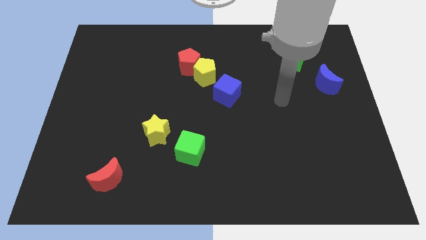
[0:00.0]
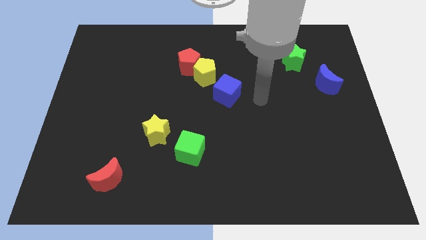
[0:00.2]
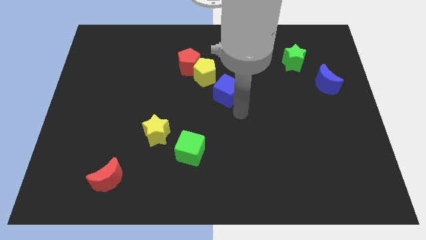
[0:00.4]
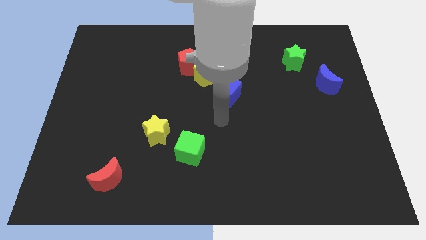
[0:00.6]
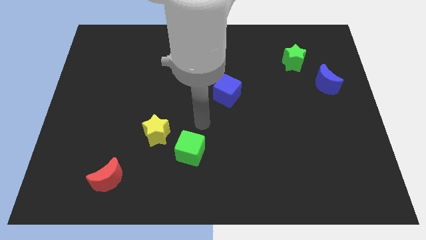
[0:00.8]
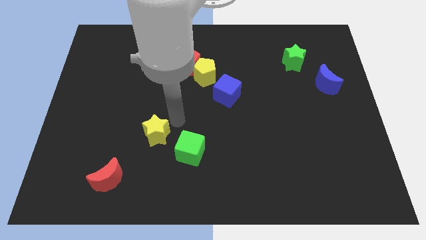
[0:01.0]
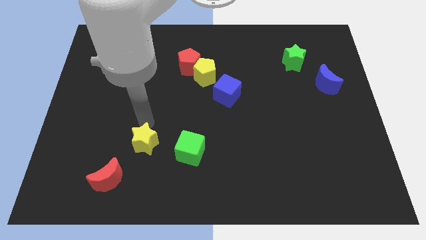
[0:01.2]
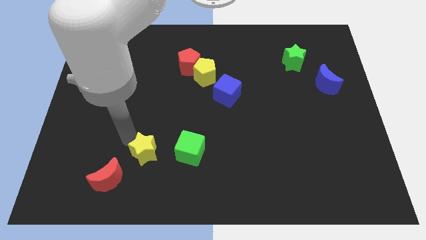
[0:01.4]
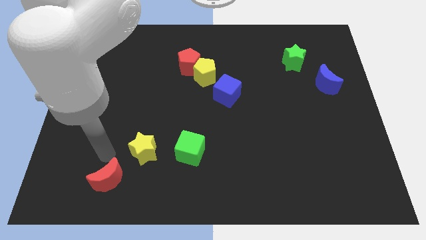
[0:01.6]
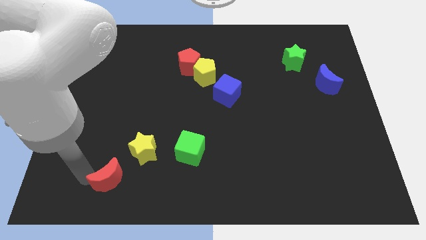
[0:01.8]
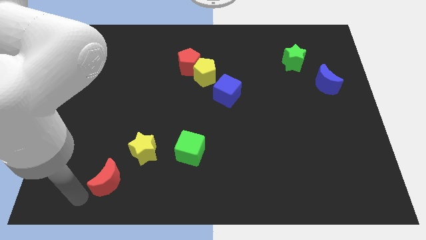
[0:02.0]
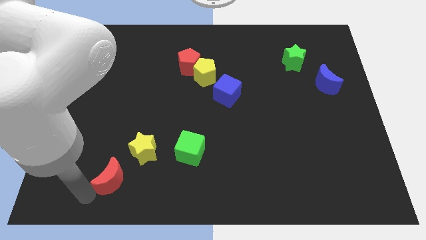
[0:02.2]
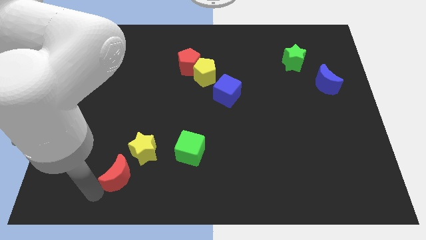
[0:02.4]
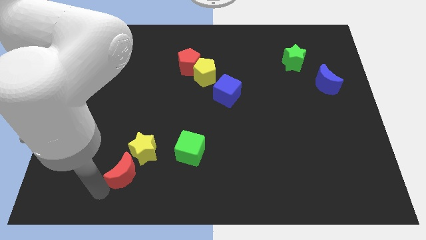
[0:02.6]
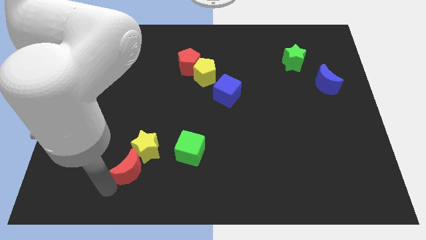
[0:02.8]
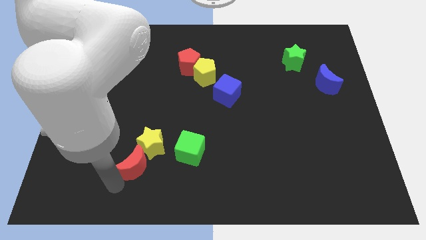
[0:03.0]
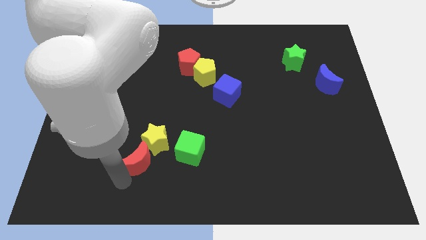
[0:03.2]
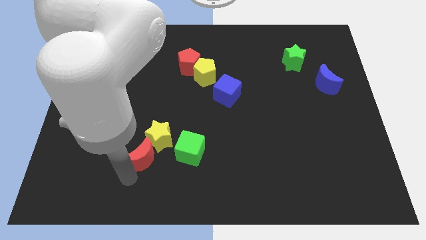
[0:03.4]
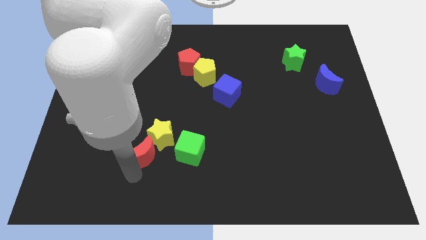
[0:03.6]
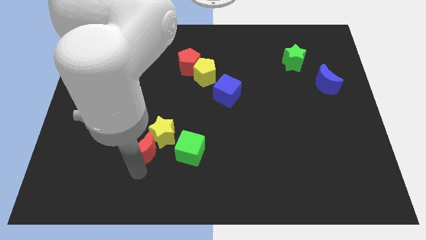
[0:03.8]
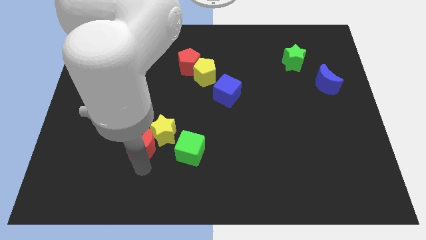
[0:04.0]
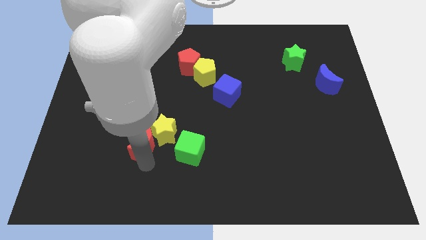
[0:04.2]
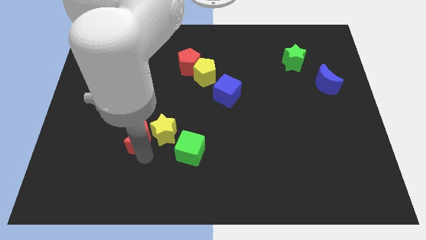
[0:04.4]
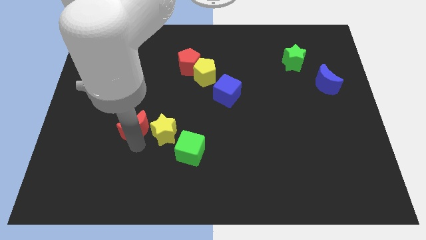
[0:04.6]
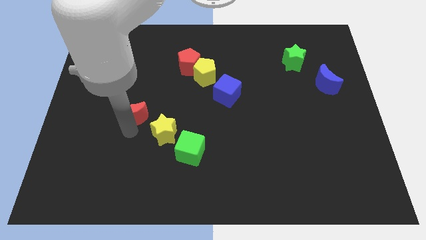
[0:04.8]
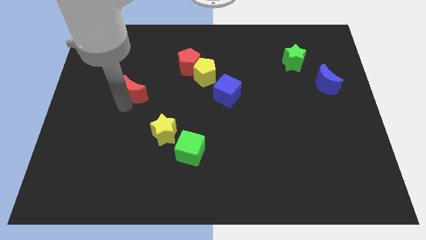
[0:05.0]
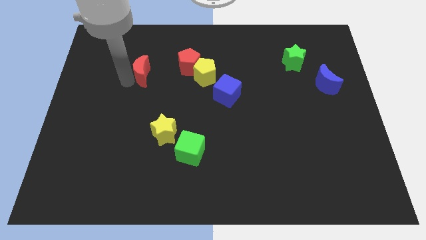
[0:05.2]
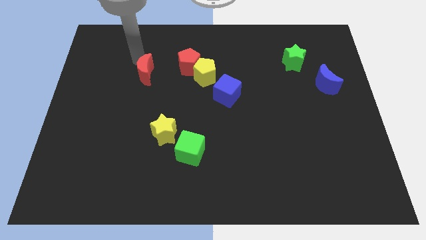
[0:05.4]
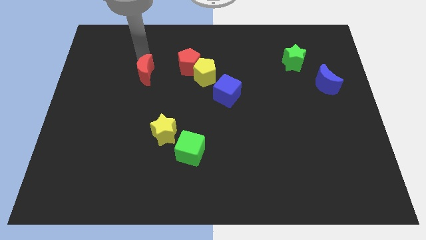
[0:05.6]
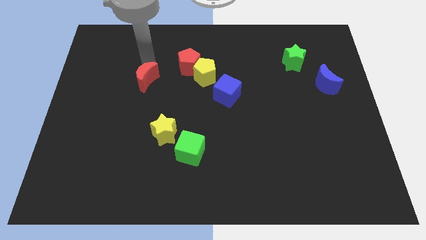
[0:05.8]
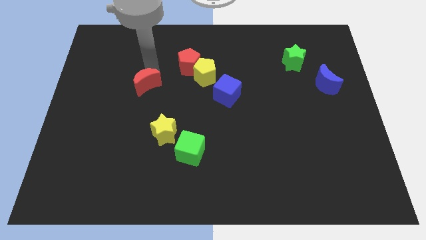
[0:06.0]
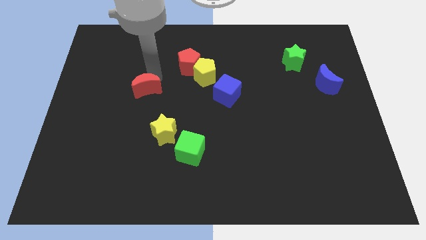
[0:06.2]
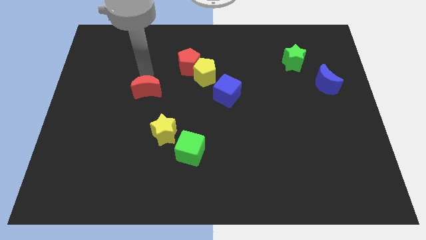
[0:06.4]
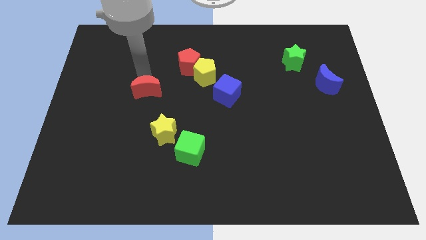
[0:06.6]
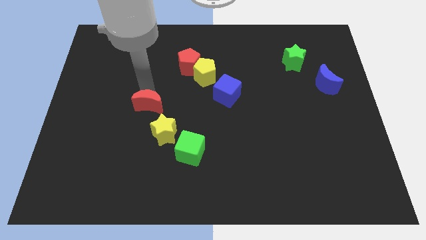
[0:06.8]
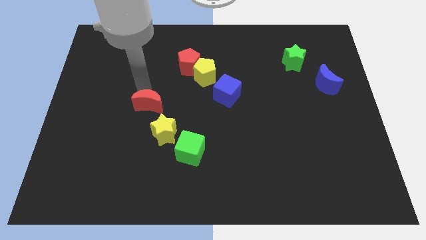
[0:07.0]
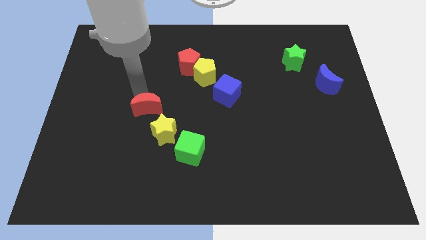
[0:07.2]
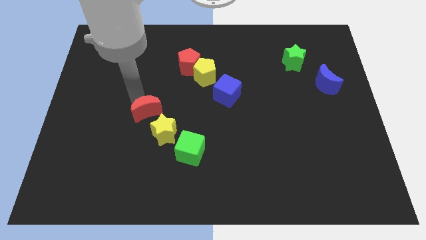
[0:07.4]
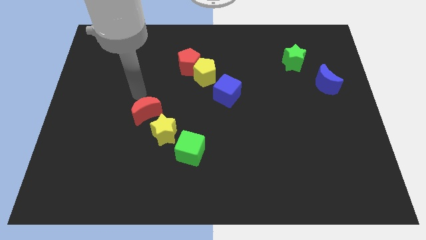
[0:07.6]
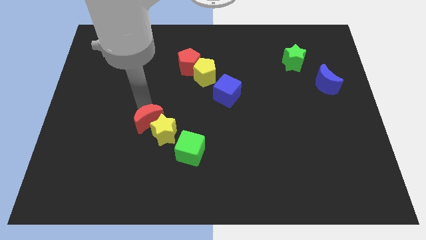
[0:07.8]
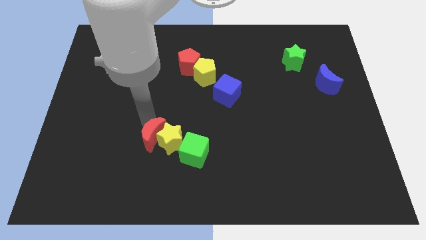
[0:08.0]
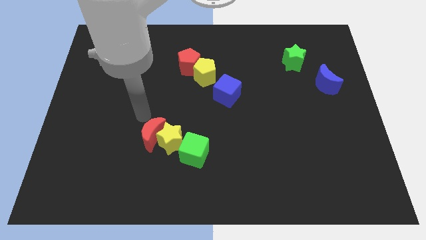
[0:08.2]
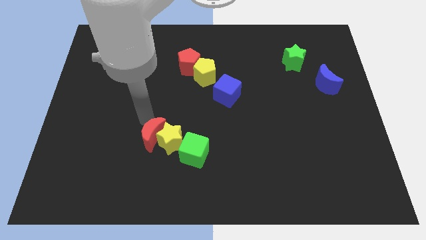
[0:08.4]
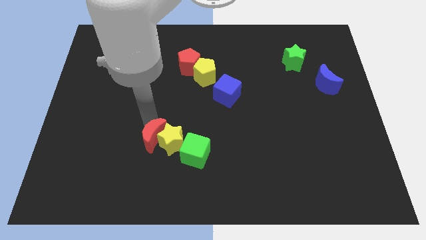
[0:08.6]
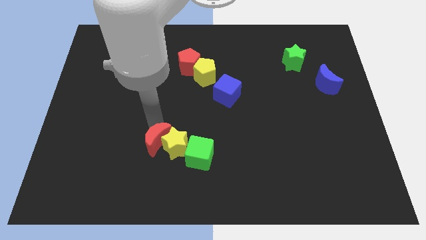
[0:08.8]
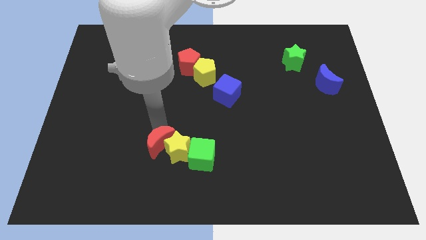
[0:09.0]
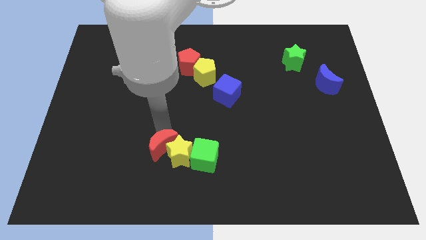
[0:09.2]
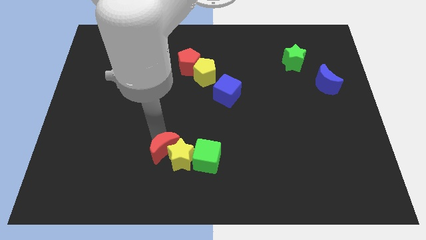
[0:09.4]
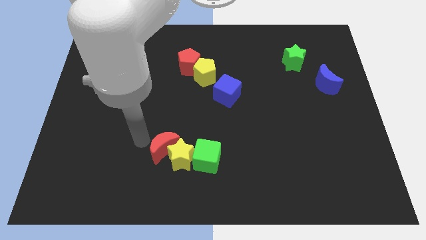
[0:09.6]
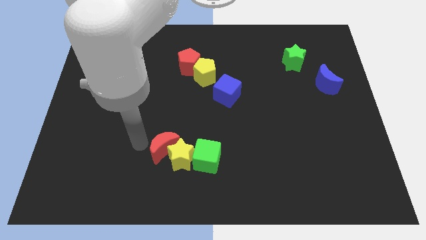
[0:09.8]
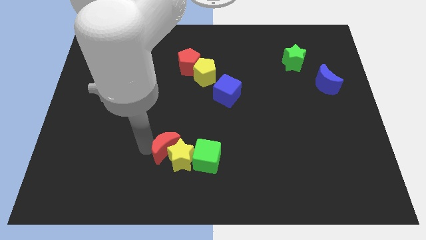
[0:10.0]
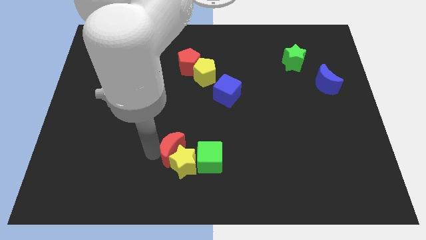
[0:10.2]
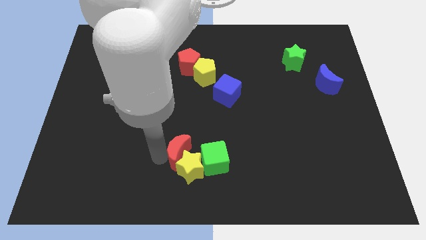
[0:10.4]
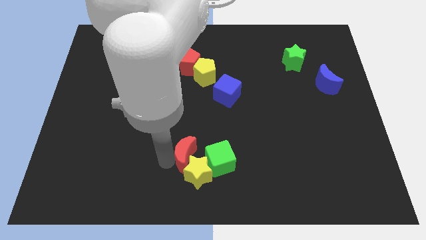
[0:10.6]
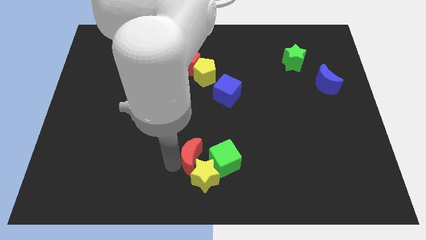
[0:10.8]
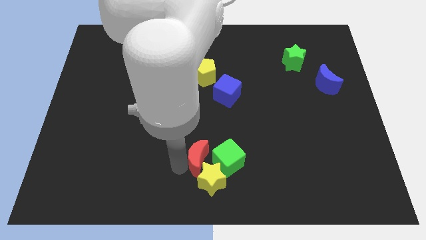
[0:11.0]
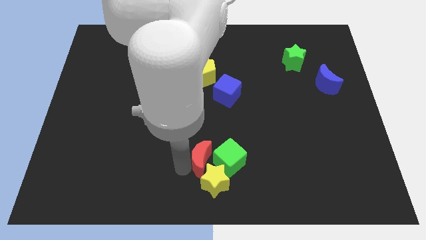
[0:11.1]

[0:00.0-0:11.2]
push the red moon close to the green cube

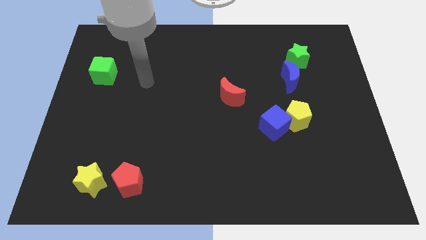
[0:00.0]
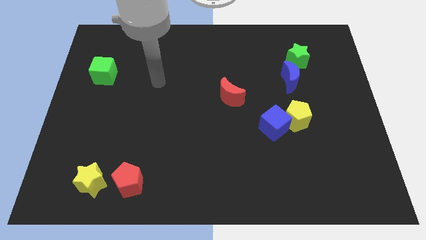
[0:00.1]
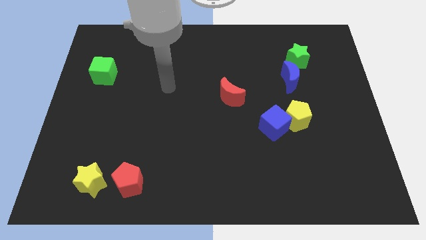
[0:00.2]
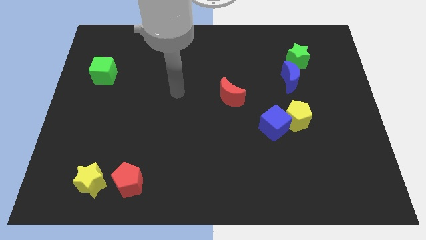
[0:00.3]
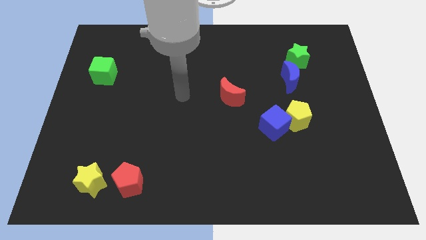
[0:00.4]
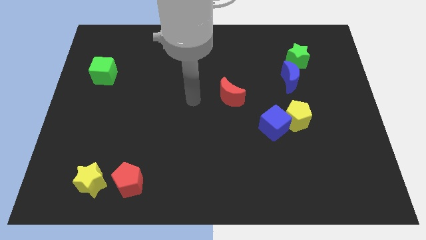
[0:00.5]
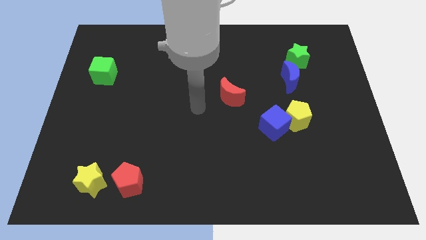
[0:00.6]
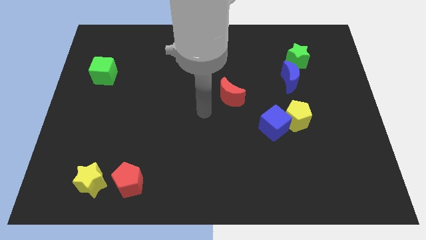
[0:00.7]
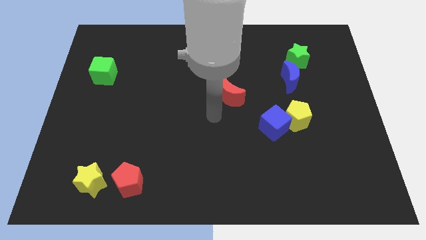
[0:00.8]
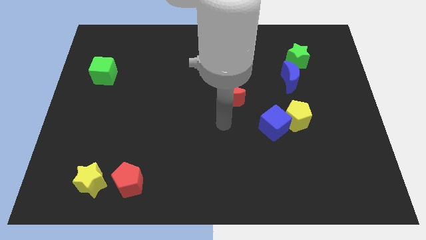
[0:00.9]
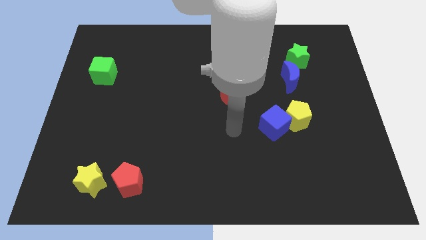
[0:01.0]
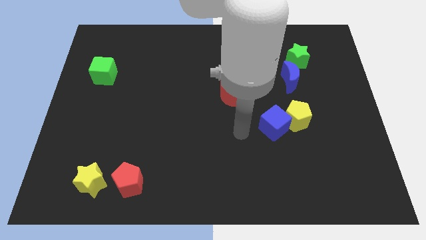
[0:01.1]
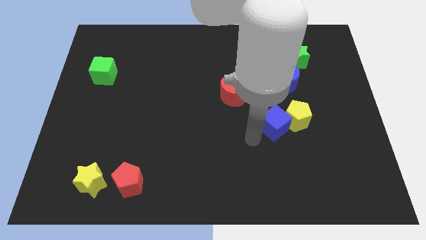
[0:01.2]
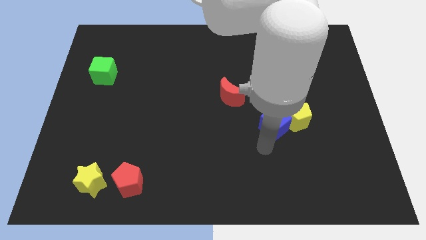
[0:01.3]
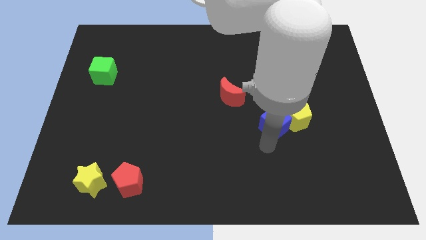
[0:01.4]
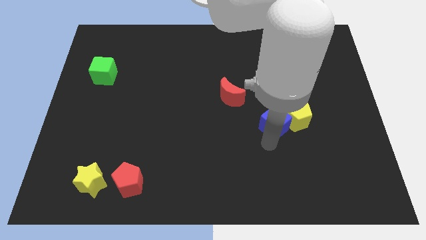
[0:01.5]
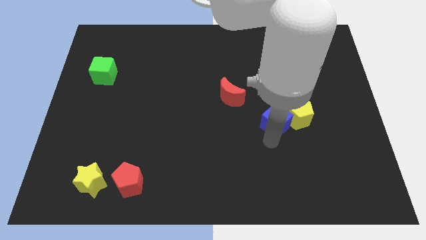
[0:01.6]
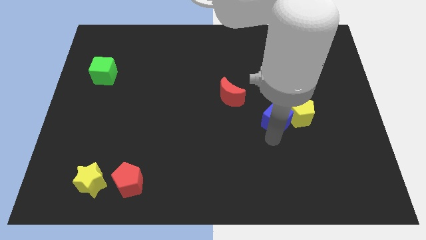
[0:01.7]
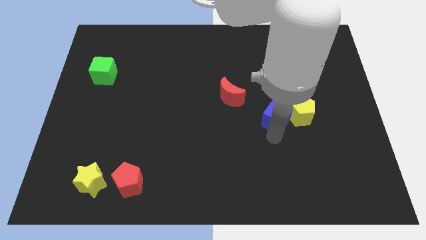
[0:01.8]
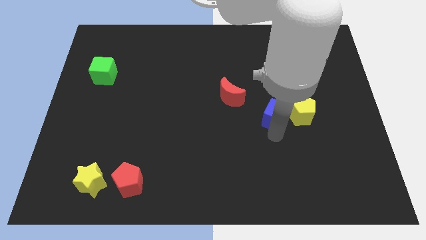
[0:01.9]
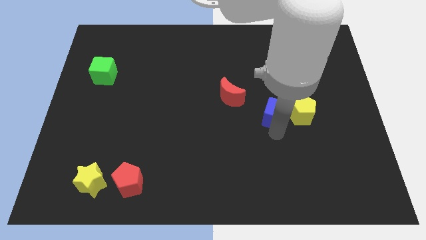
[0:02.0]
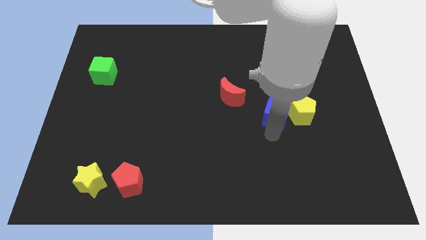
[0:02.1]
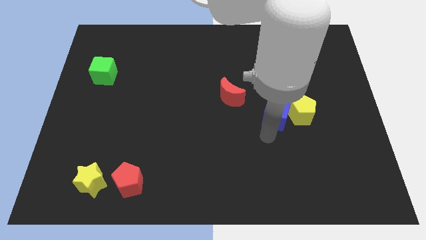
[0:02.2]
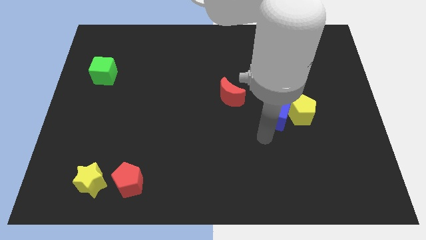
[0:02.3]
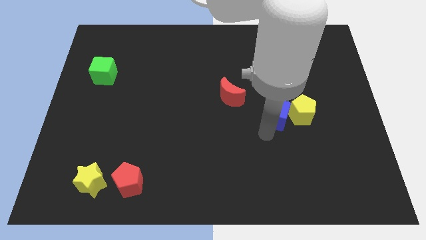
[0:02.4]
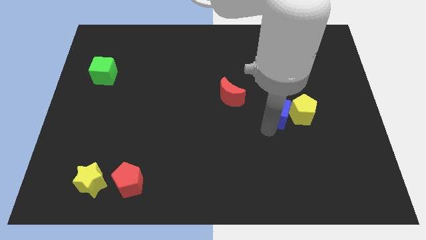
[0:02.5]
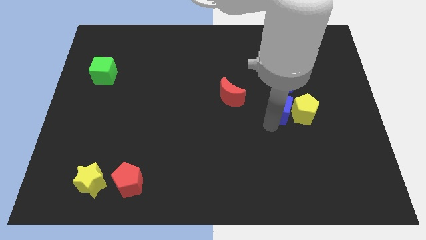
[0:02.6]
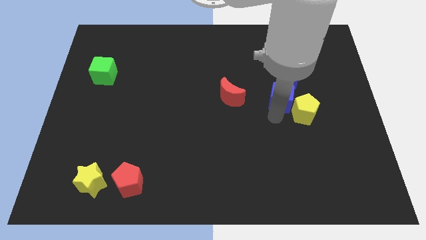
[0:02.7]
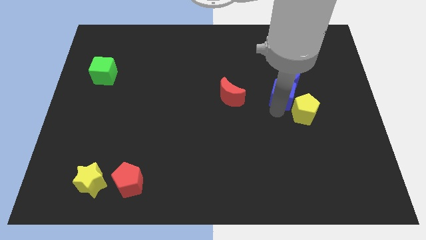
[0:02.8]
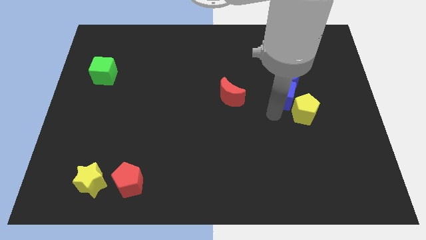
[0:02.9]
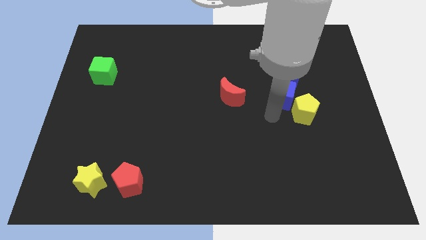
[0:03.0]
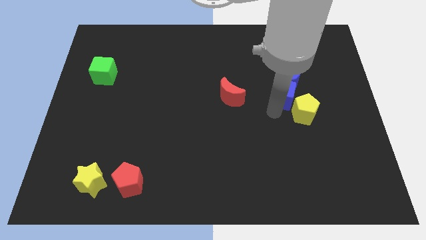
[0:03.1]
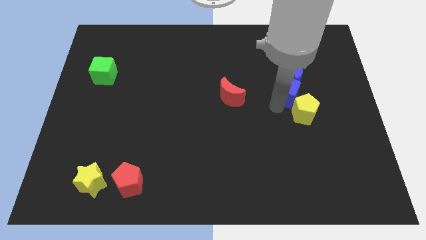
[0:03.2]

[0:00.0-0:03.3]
push the blue cube towards the blue moon
